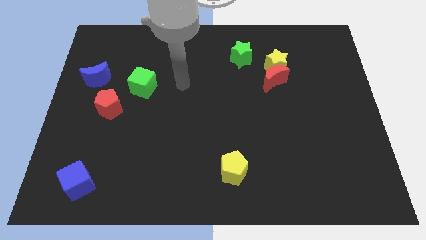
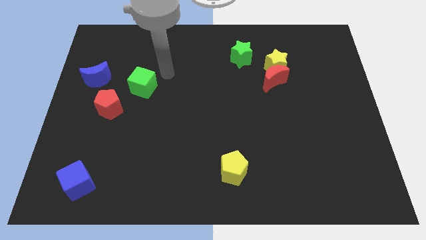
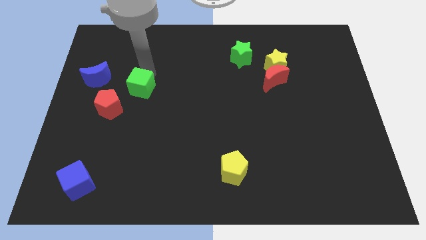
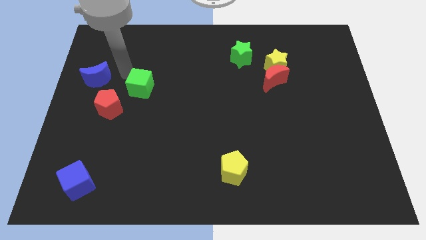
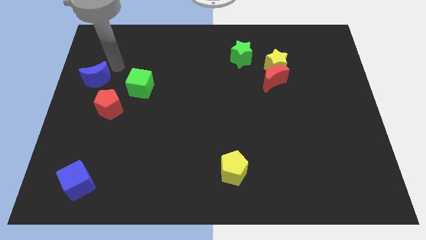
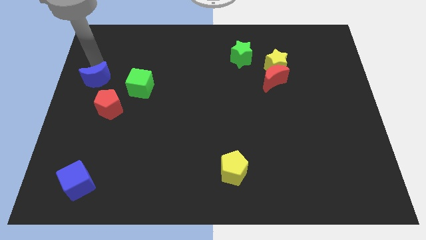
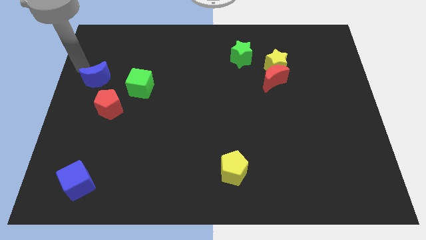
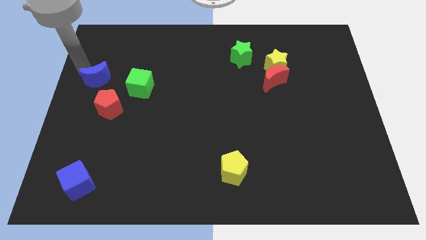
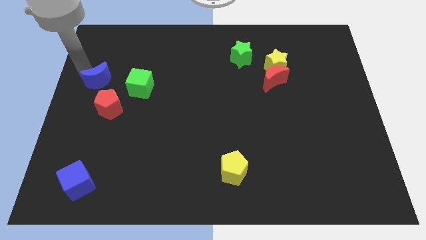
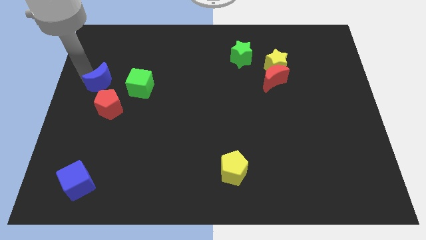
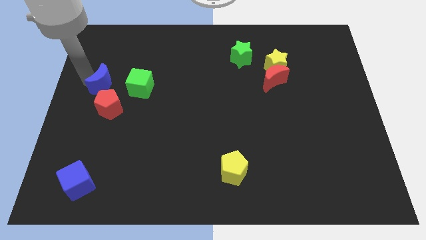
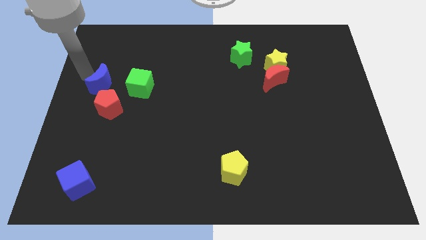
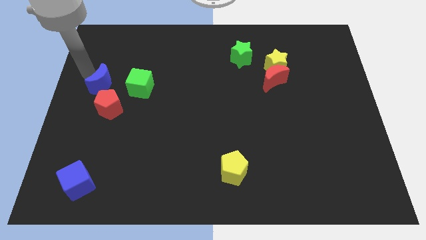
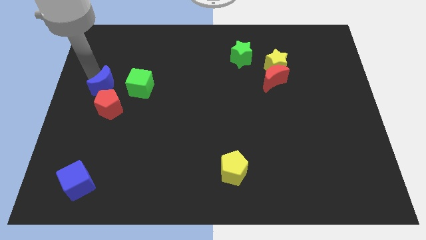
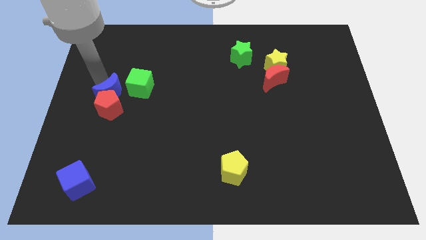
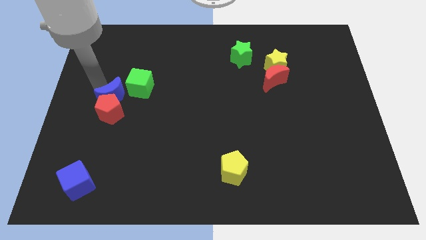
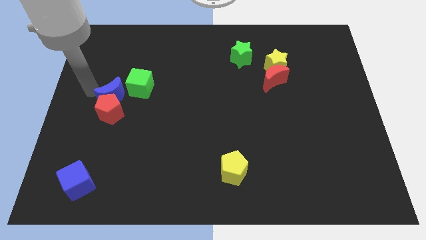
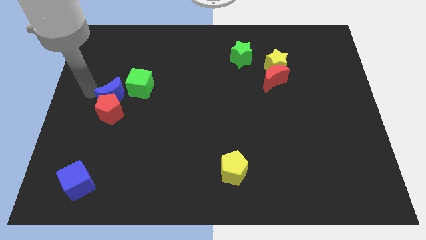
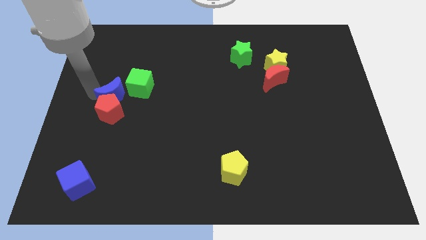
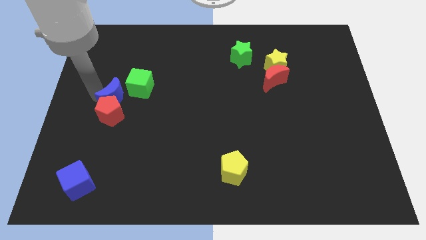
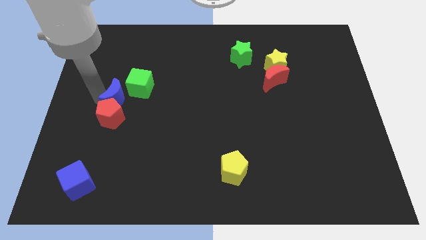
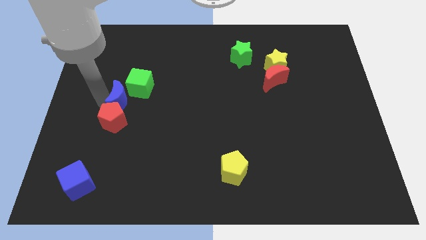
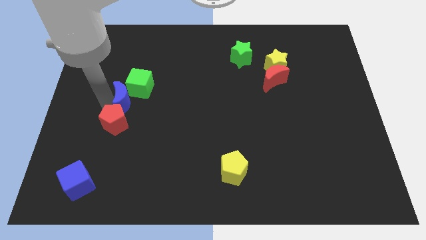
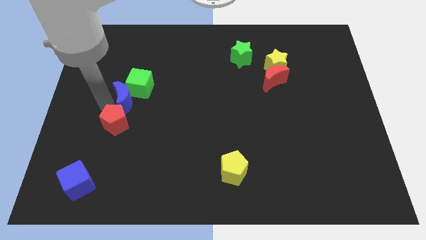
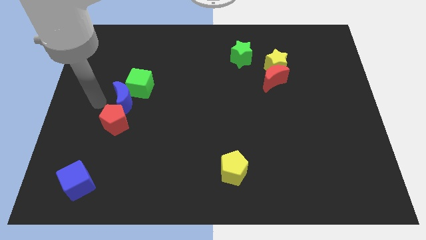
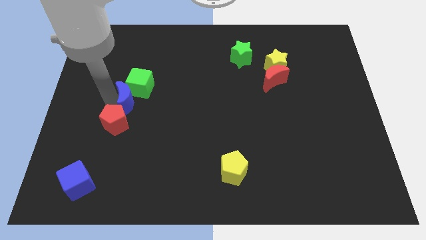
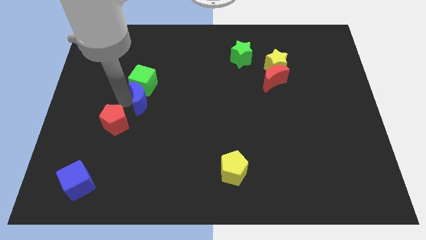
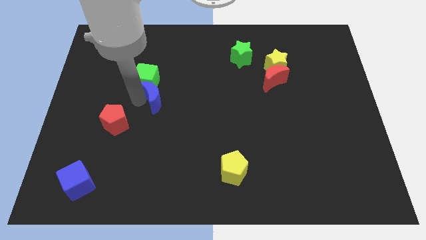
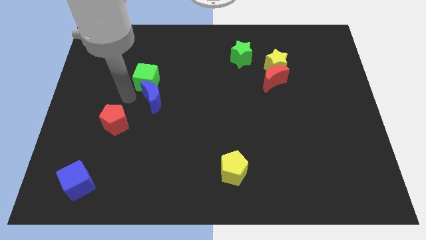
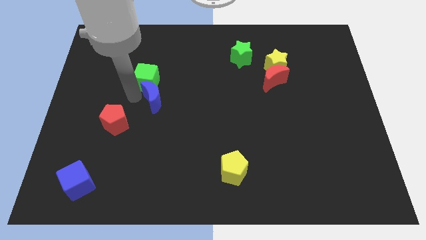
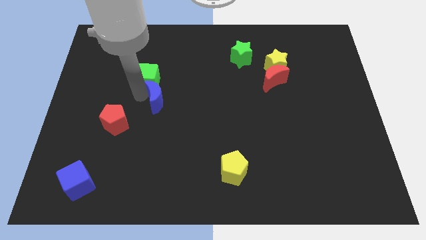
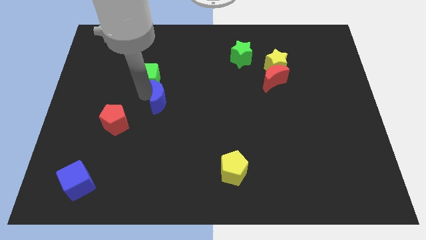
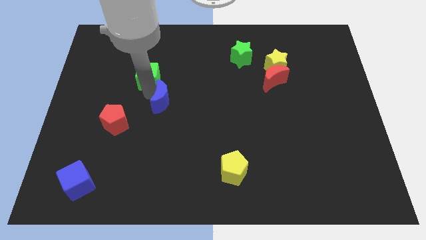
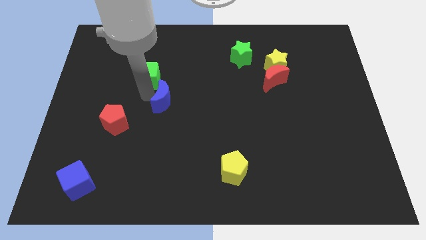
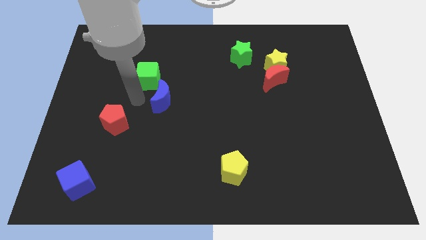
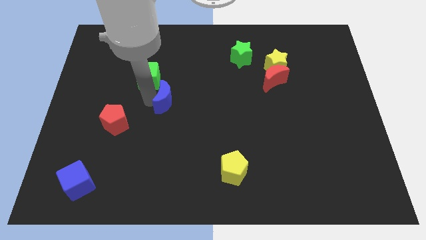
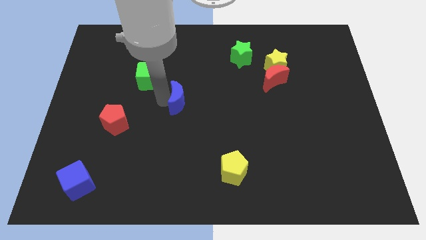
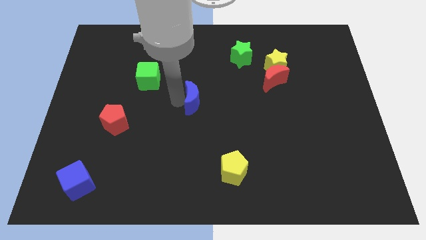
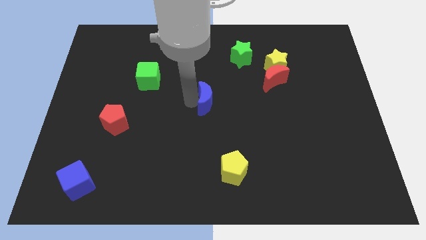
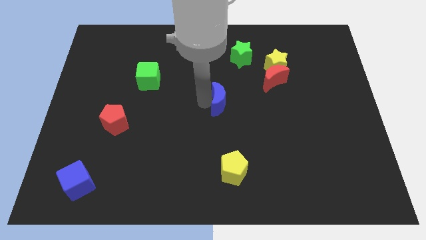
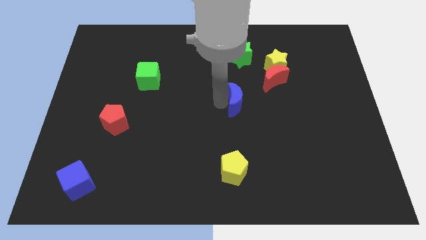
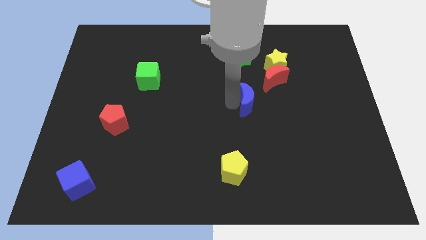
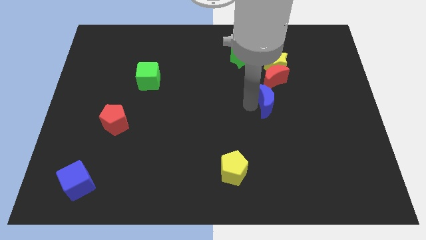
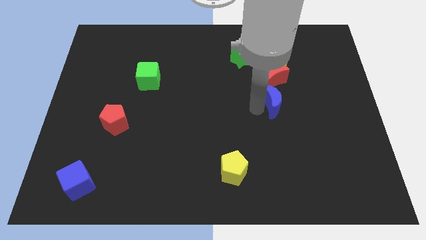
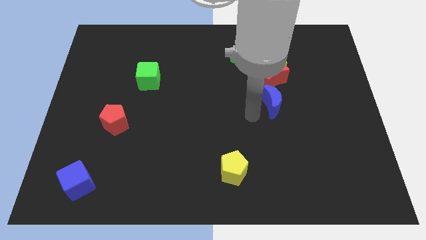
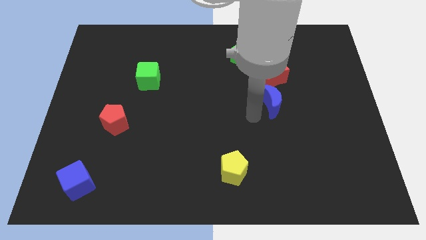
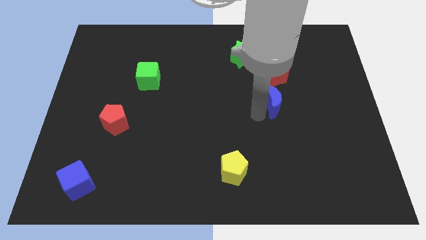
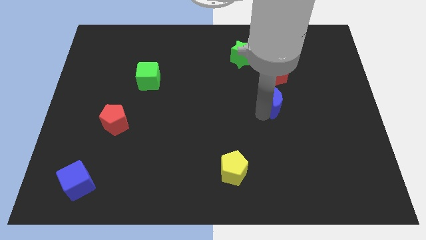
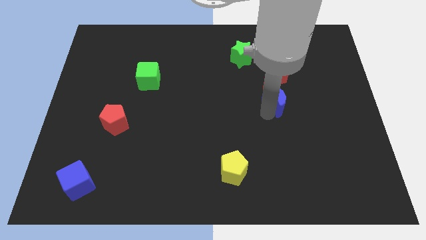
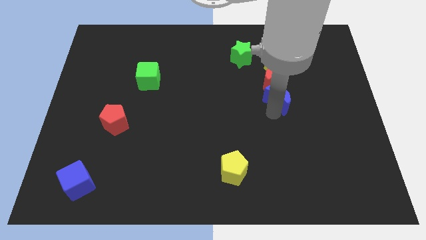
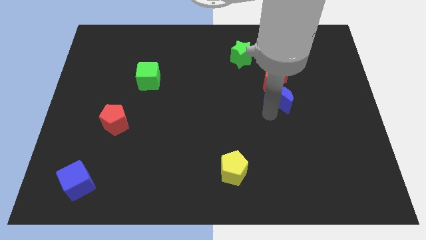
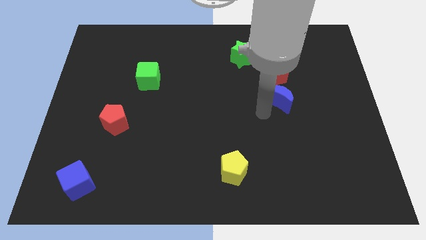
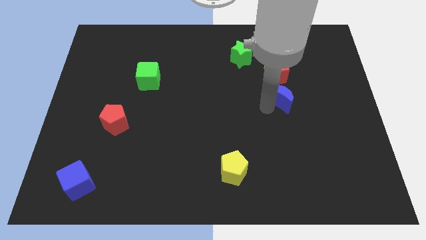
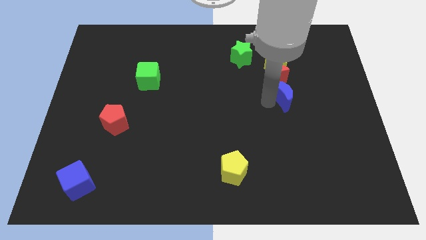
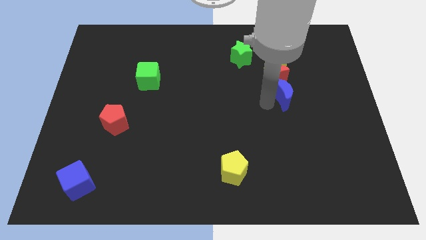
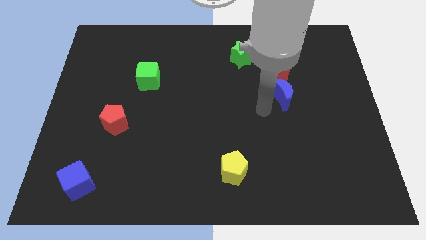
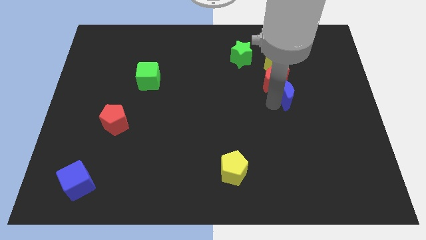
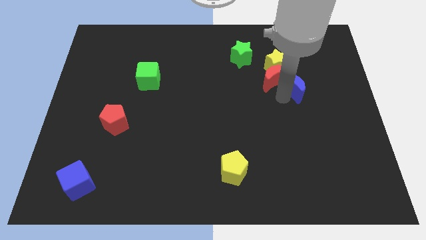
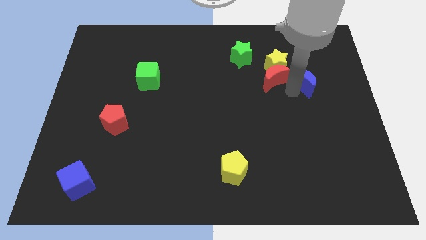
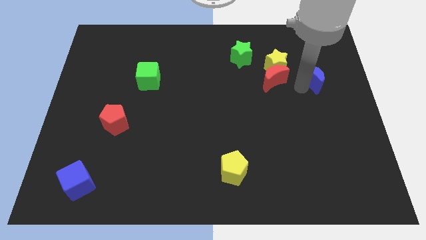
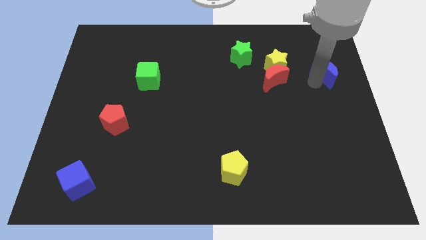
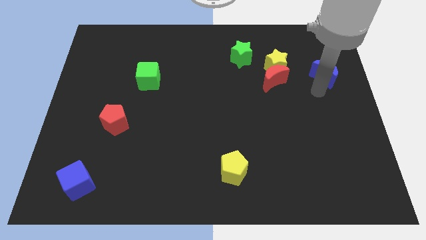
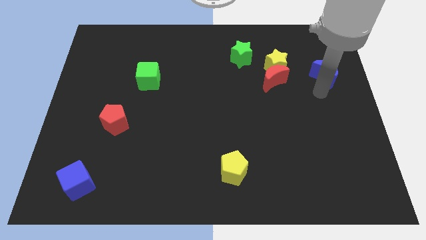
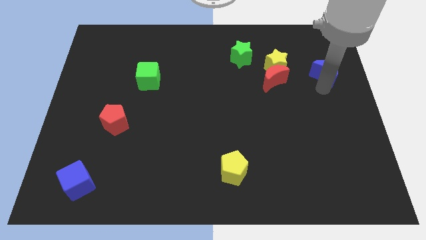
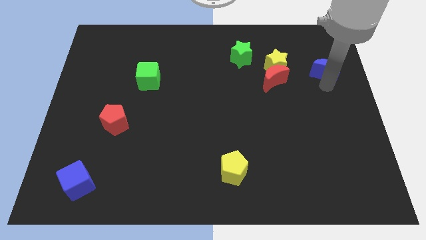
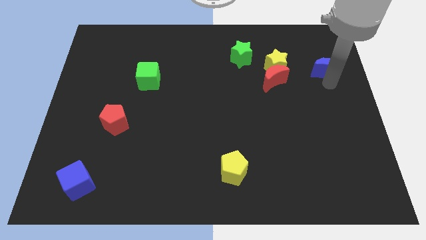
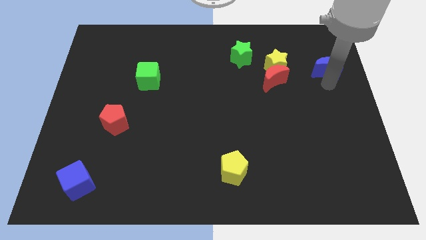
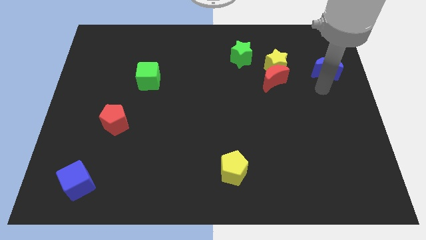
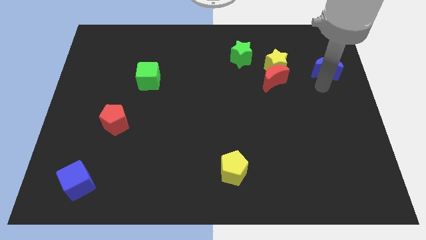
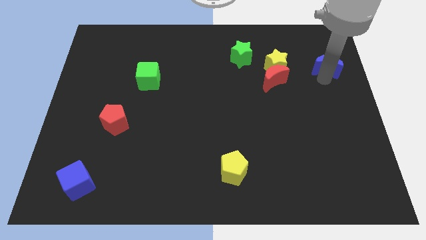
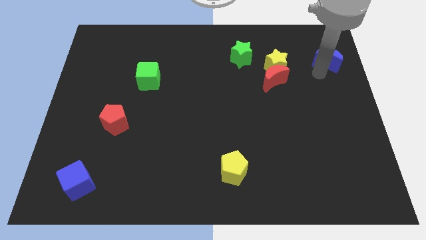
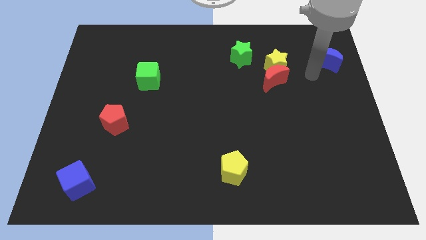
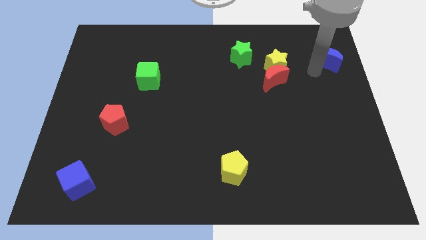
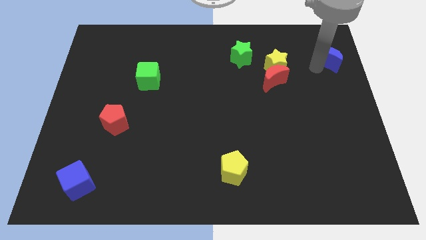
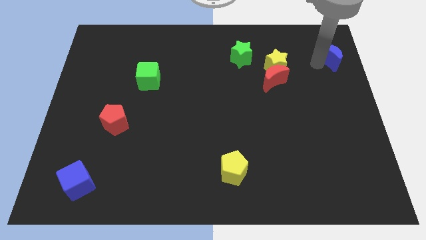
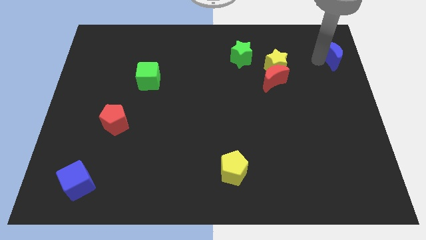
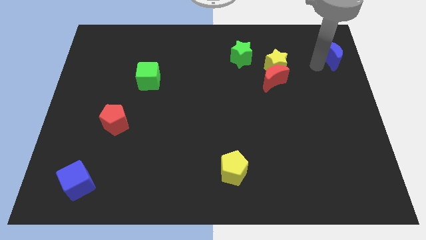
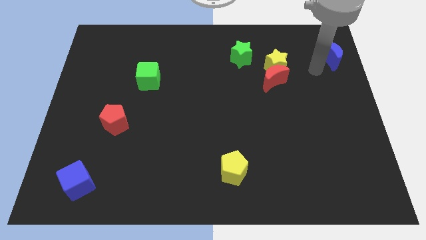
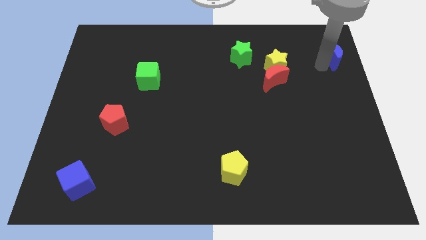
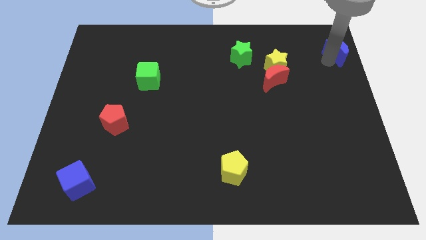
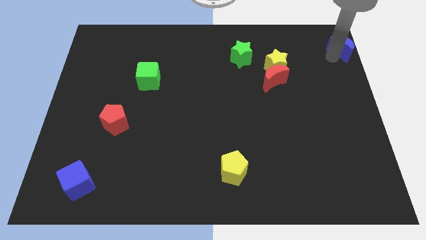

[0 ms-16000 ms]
put the blue moon to the top right
